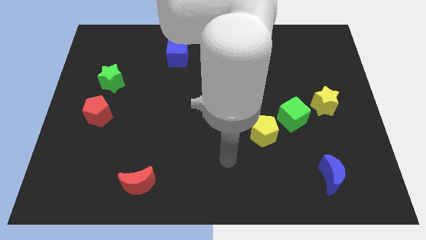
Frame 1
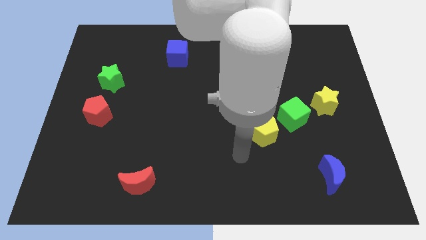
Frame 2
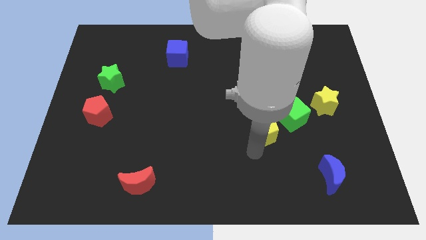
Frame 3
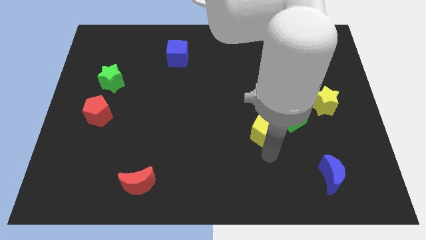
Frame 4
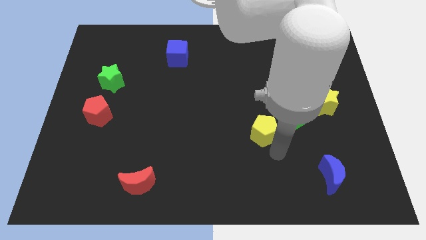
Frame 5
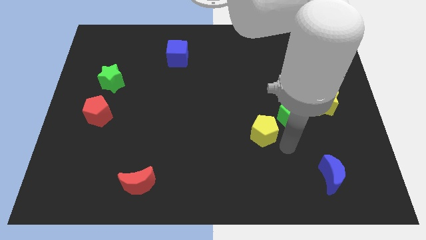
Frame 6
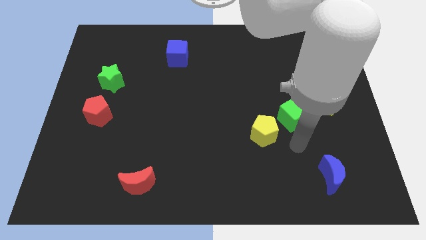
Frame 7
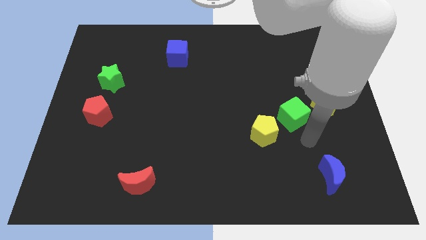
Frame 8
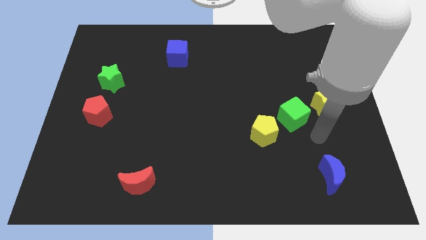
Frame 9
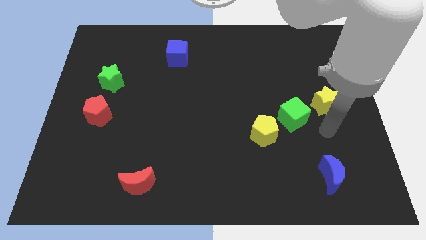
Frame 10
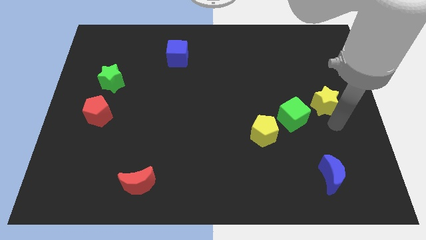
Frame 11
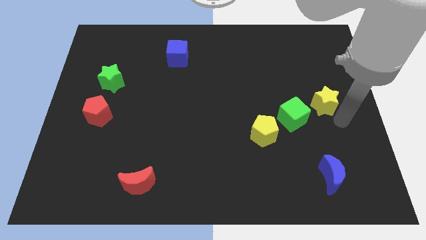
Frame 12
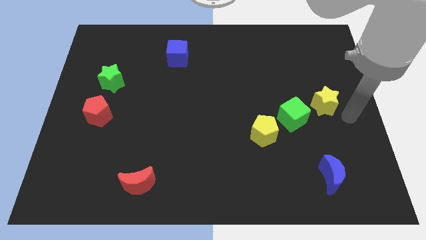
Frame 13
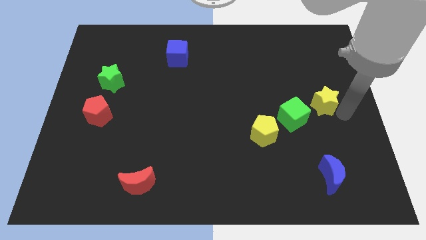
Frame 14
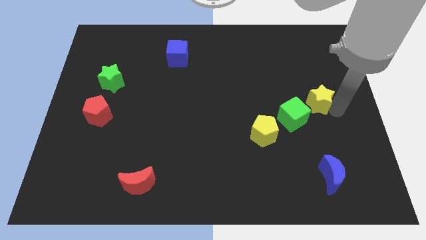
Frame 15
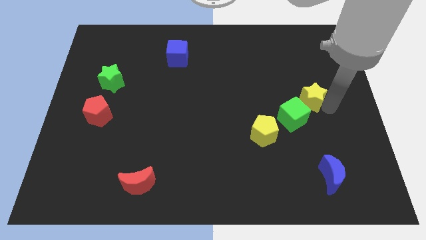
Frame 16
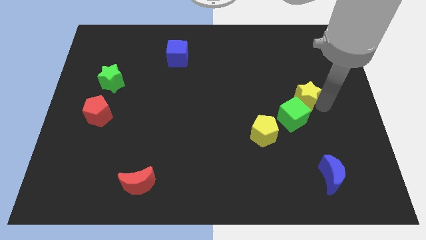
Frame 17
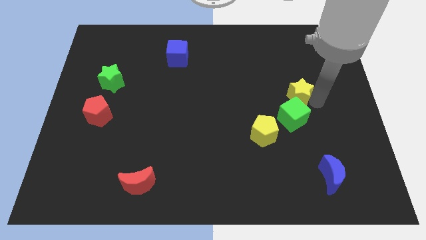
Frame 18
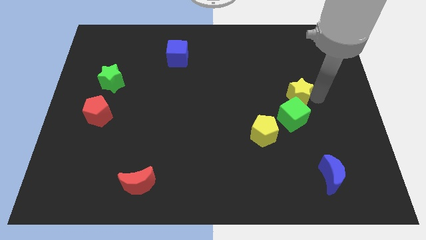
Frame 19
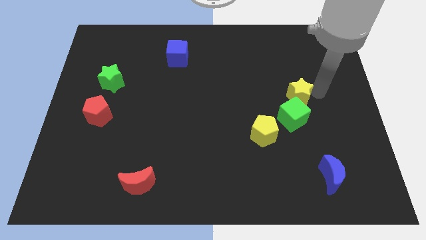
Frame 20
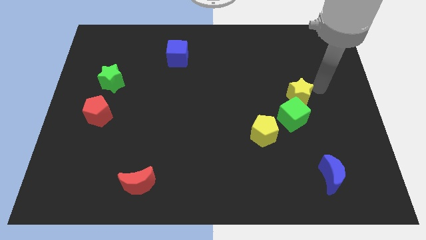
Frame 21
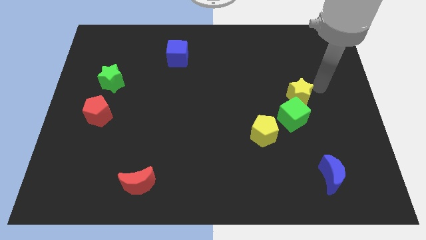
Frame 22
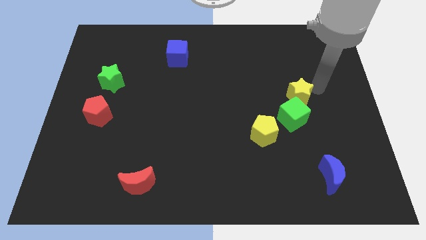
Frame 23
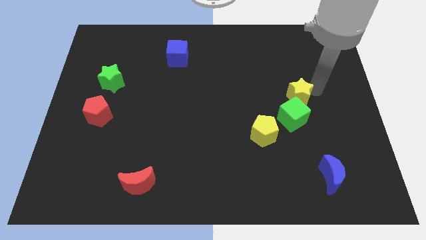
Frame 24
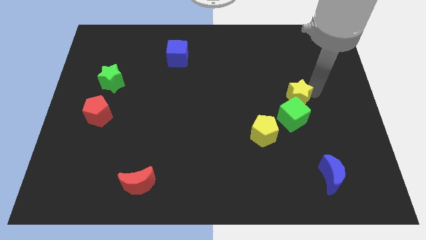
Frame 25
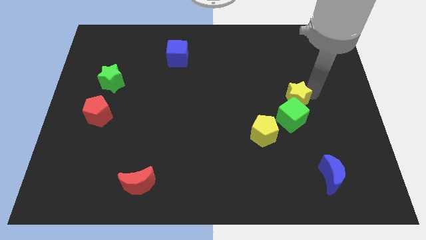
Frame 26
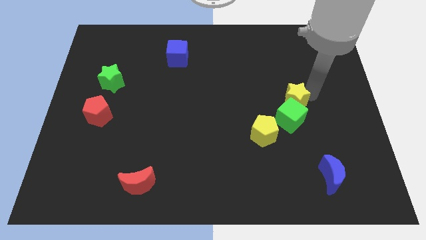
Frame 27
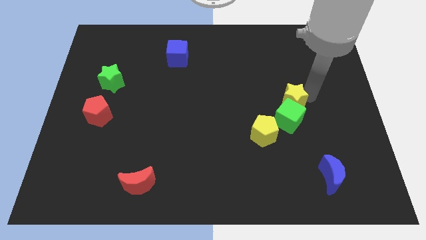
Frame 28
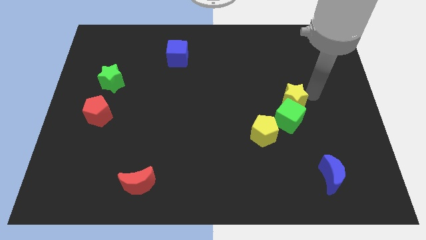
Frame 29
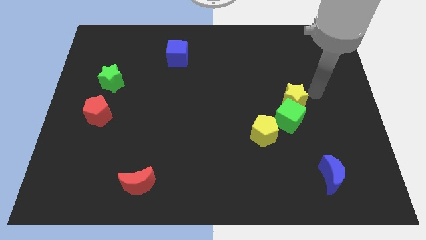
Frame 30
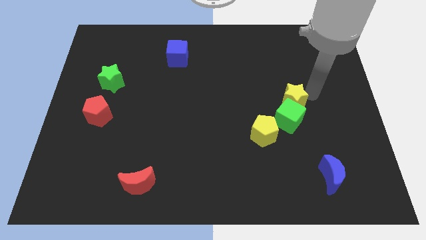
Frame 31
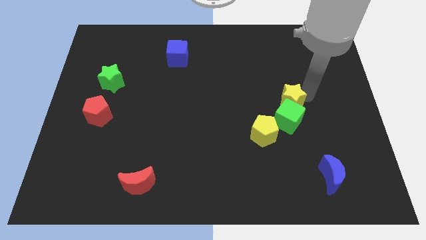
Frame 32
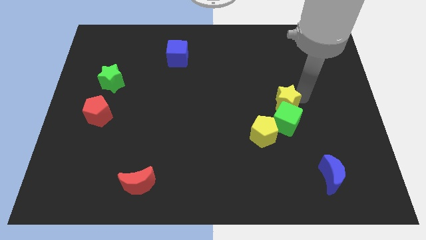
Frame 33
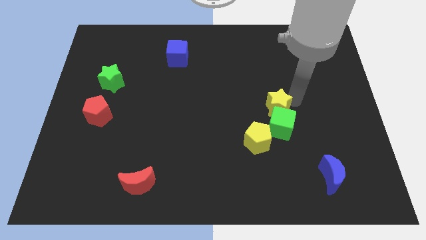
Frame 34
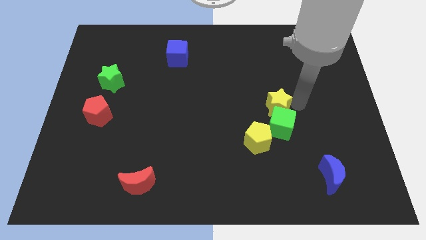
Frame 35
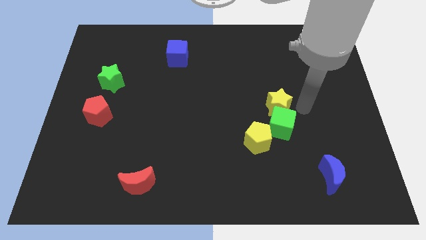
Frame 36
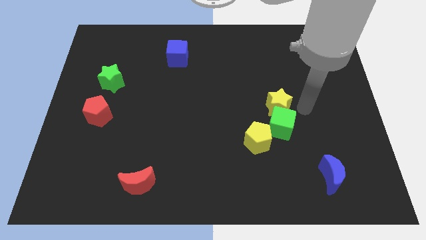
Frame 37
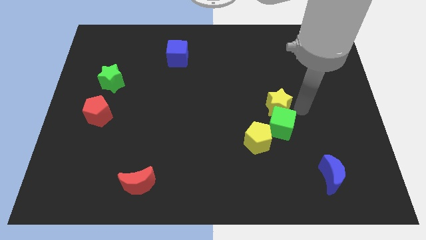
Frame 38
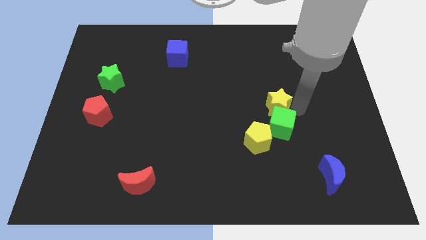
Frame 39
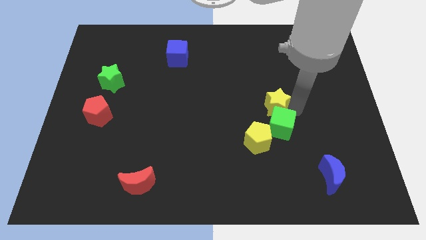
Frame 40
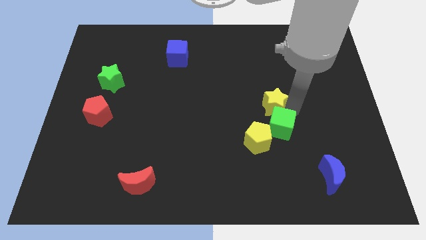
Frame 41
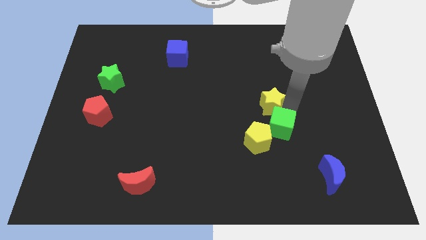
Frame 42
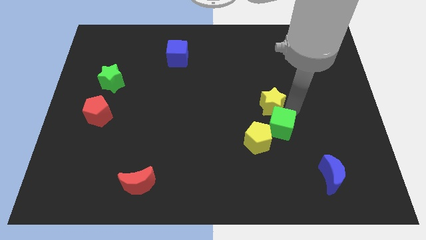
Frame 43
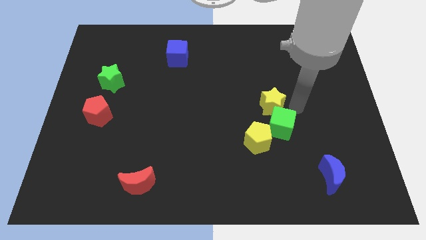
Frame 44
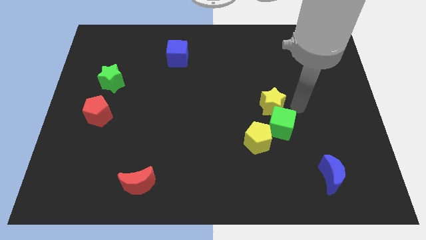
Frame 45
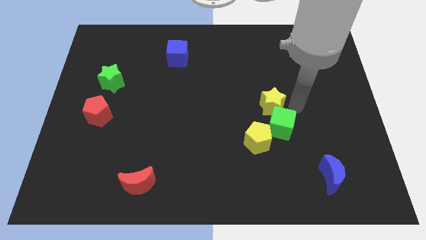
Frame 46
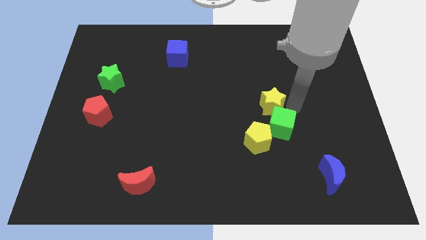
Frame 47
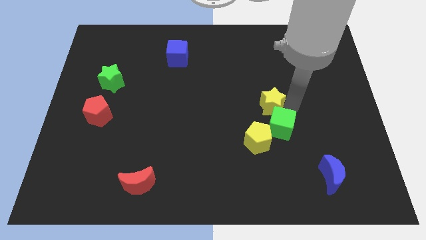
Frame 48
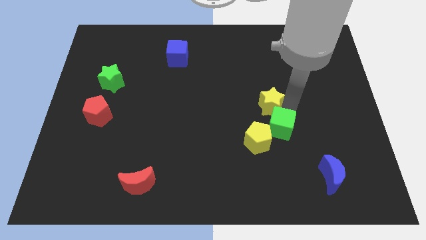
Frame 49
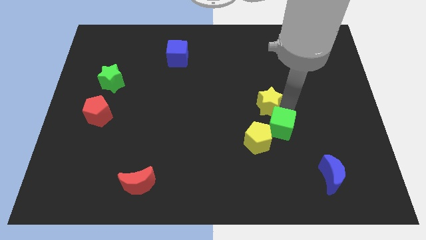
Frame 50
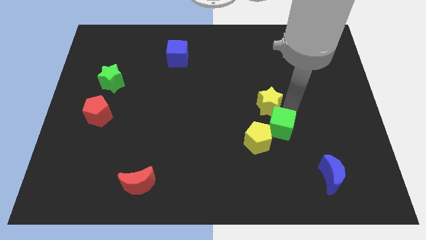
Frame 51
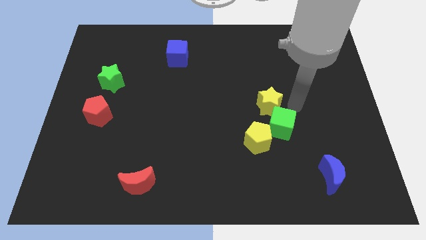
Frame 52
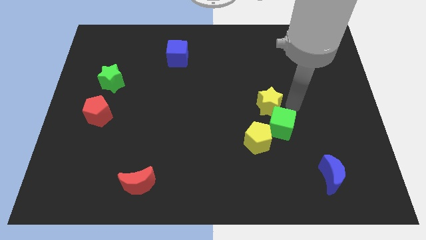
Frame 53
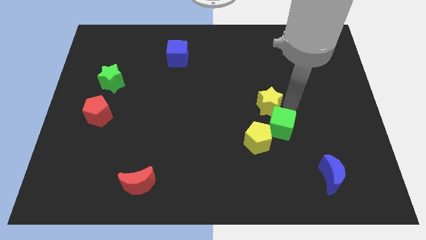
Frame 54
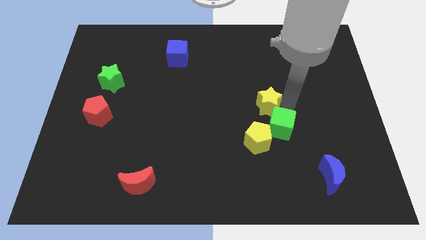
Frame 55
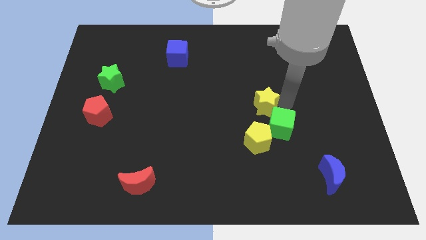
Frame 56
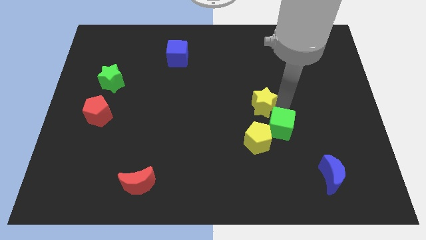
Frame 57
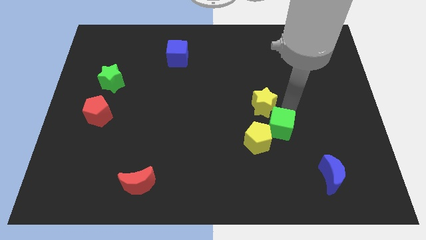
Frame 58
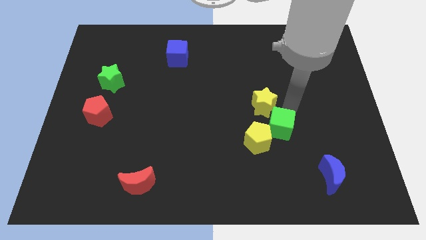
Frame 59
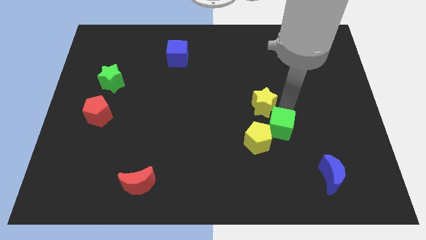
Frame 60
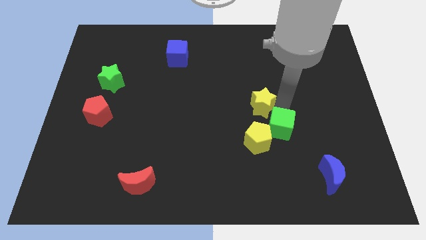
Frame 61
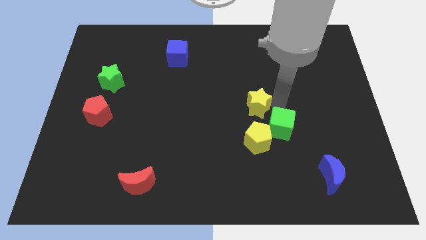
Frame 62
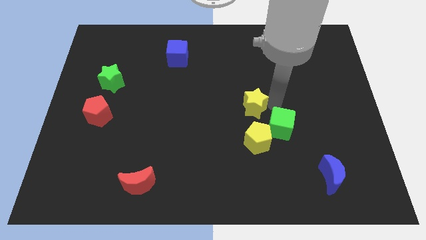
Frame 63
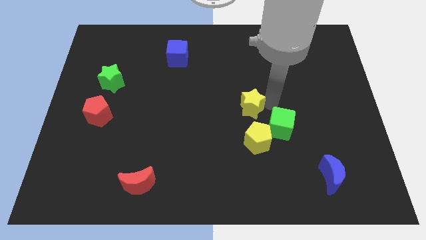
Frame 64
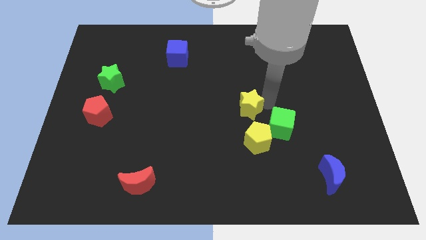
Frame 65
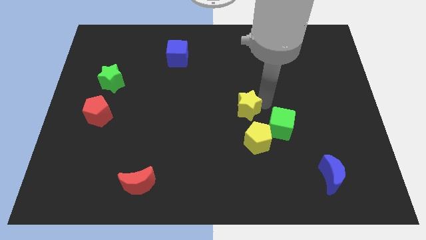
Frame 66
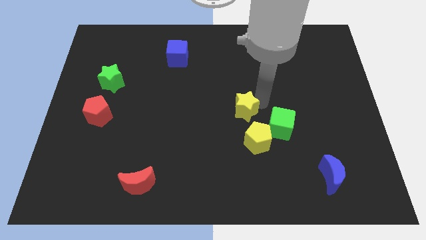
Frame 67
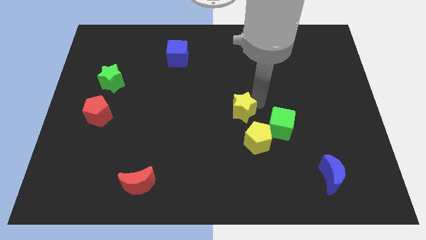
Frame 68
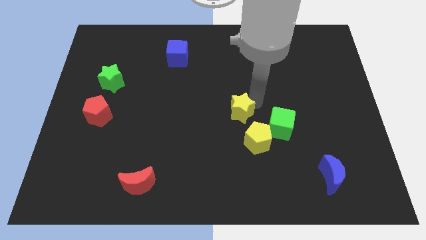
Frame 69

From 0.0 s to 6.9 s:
push the yellow star to the left

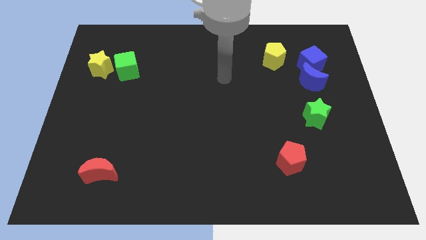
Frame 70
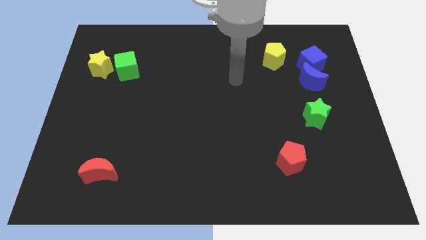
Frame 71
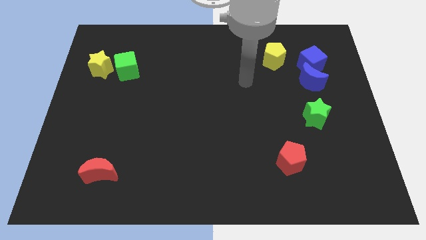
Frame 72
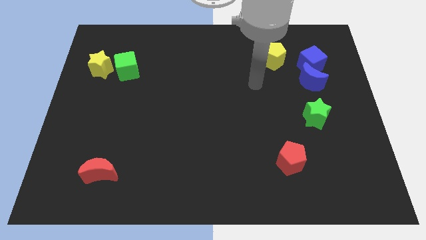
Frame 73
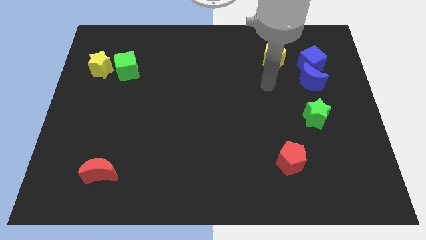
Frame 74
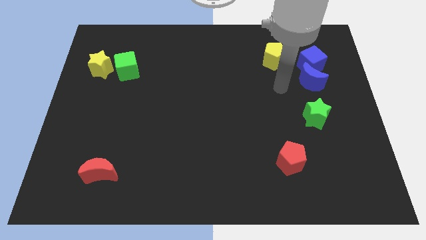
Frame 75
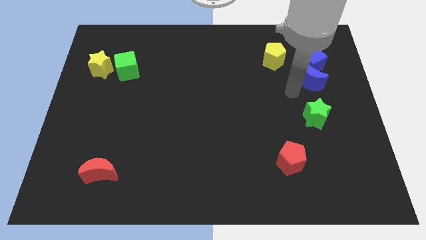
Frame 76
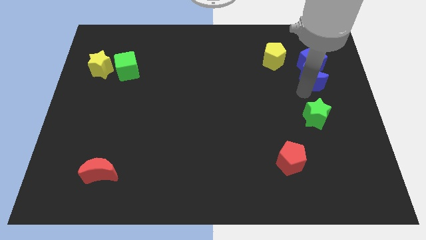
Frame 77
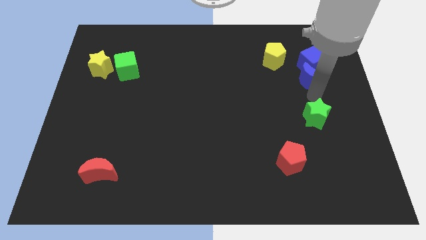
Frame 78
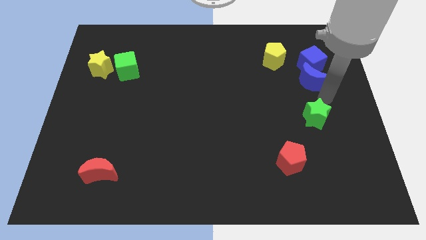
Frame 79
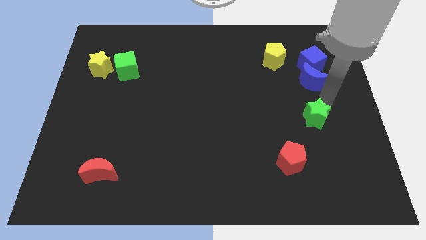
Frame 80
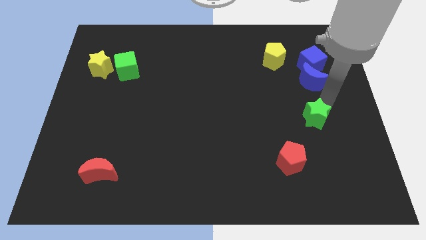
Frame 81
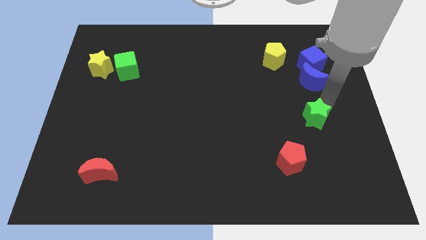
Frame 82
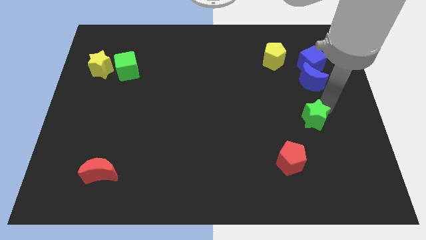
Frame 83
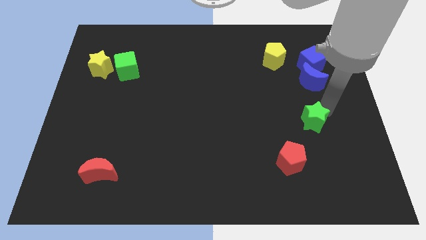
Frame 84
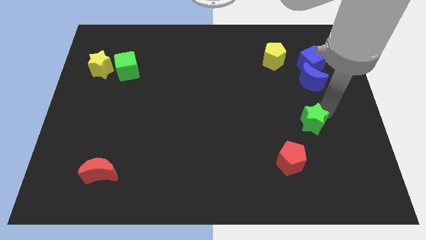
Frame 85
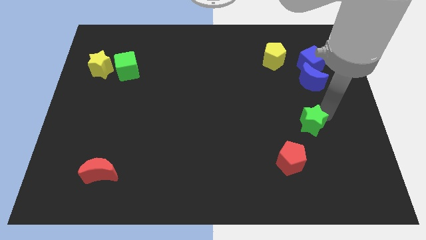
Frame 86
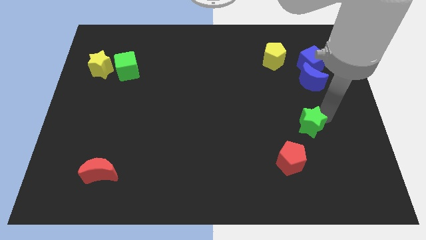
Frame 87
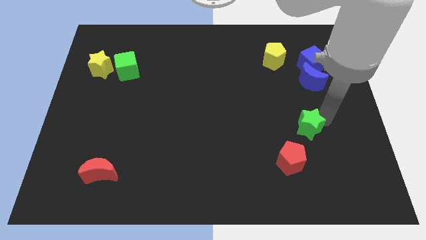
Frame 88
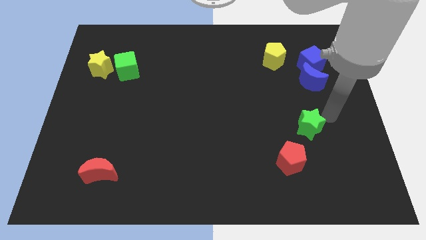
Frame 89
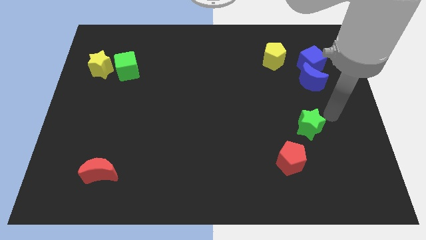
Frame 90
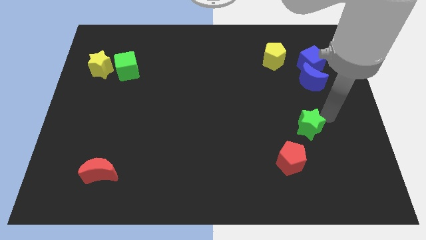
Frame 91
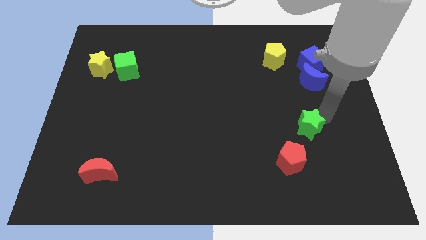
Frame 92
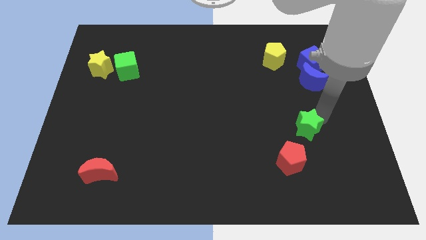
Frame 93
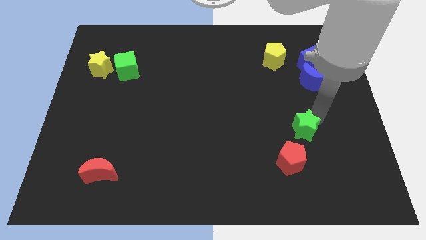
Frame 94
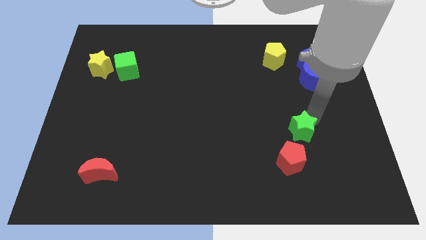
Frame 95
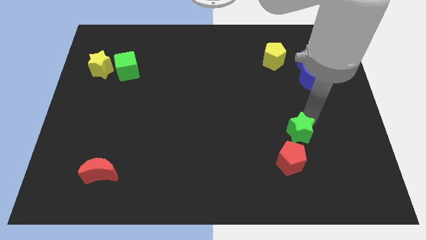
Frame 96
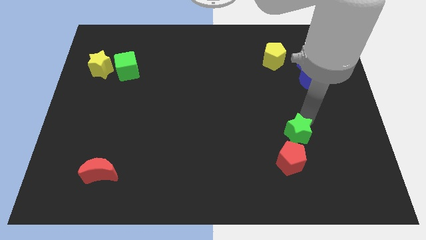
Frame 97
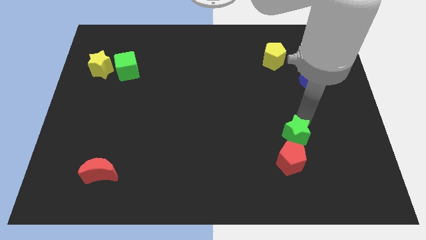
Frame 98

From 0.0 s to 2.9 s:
slide the green star down and then to the left somewhat
